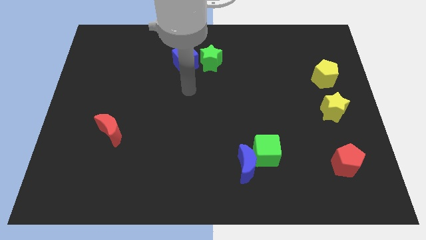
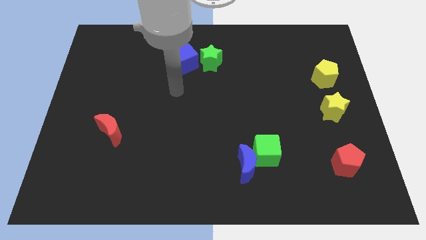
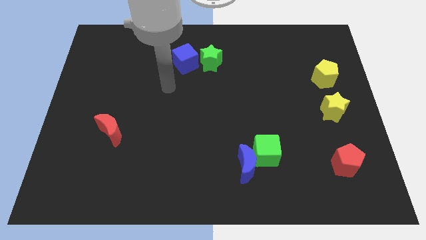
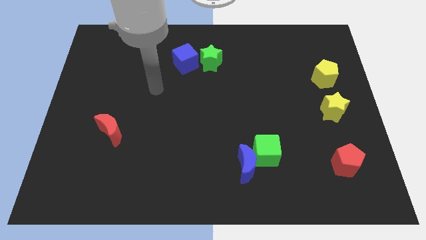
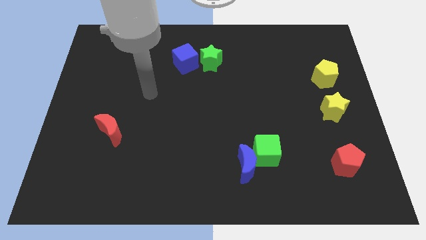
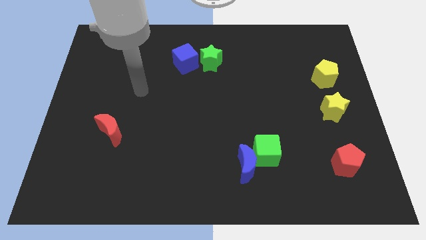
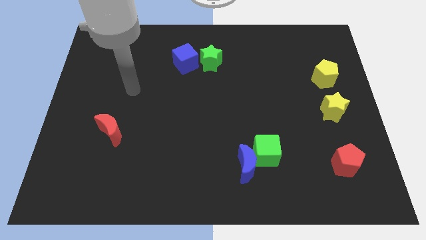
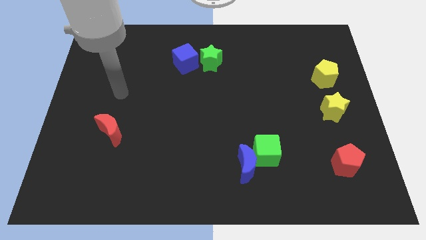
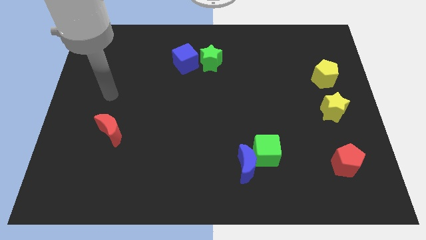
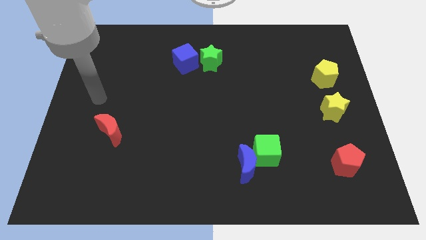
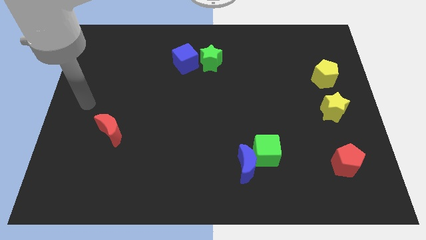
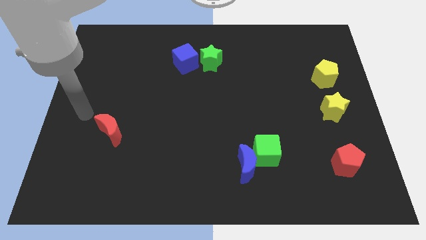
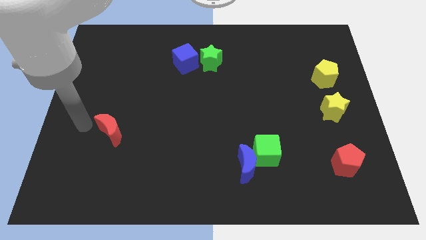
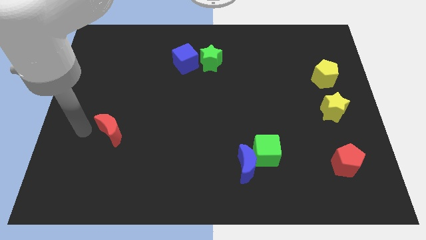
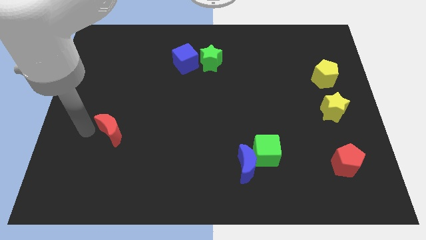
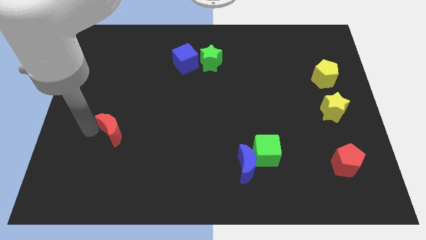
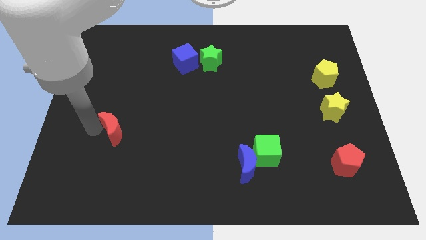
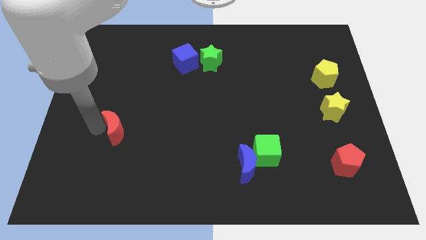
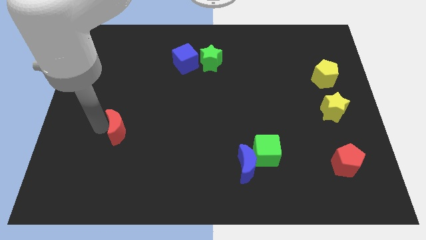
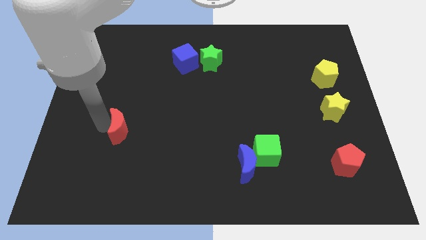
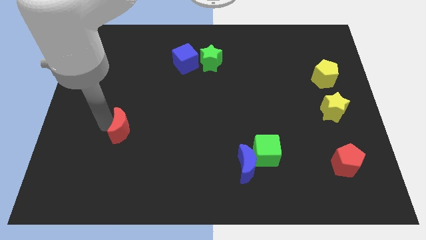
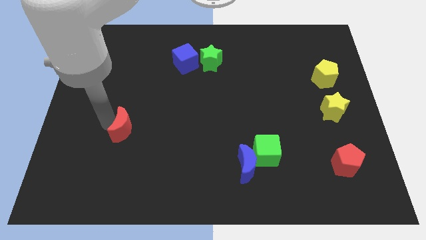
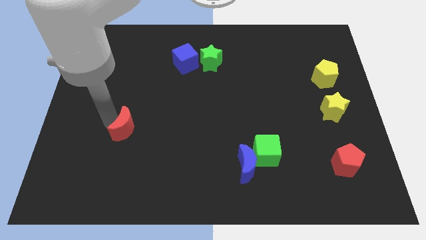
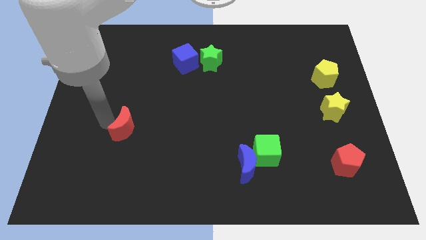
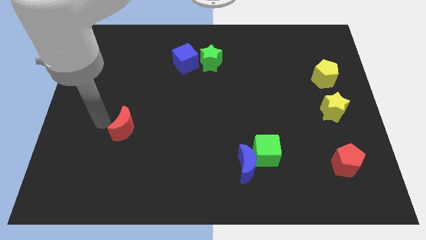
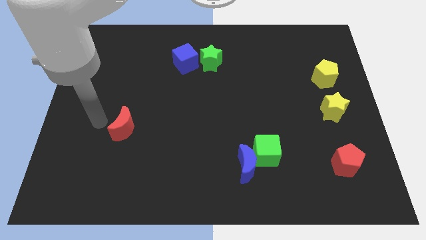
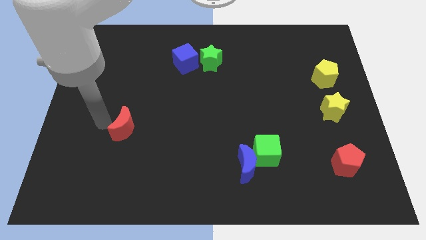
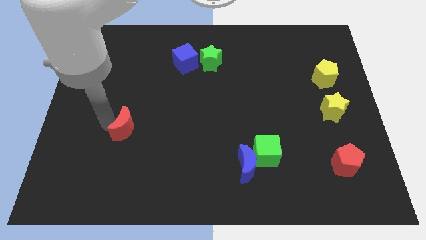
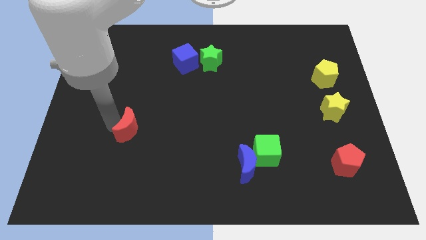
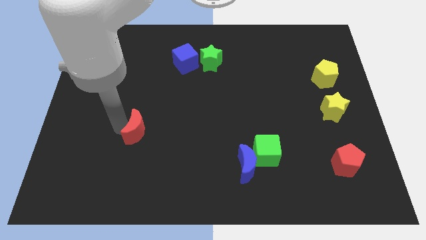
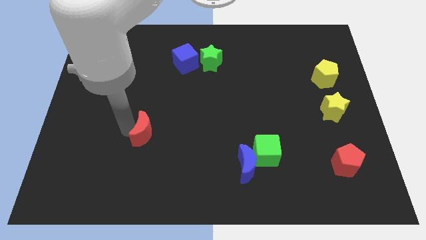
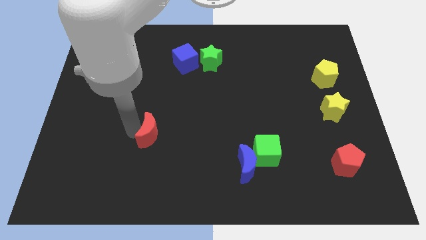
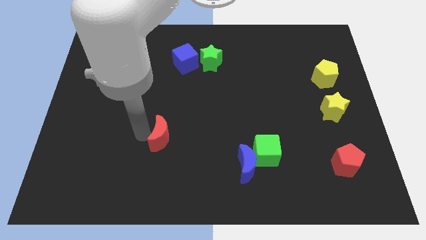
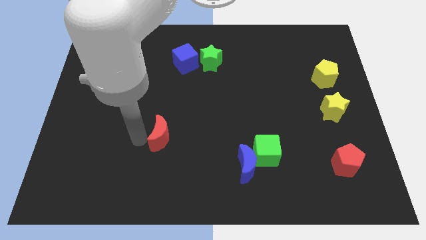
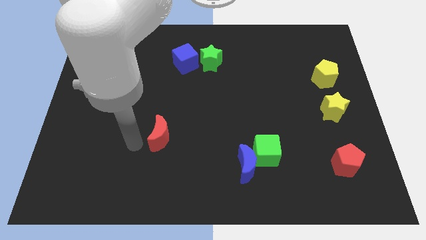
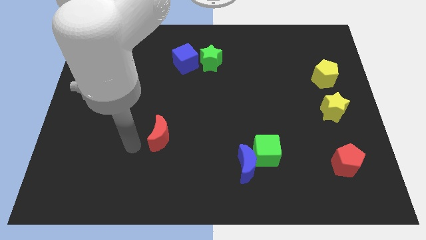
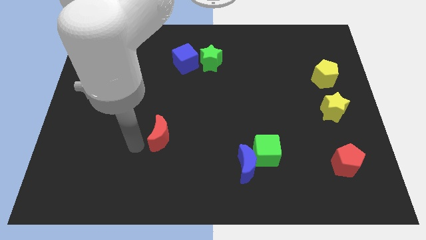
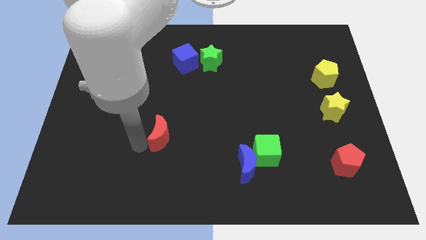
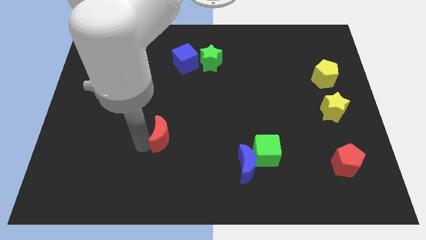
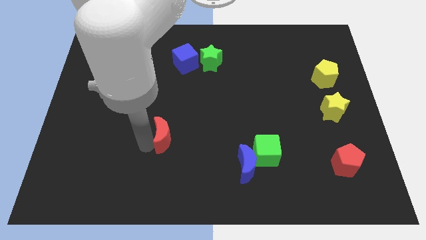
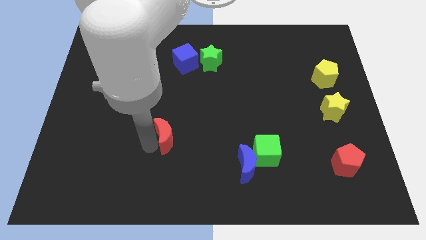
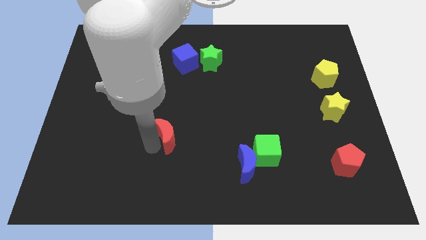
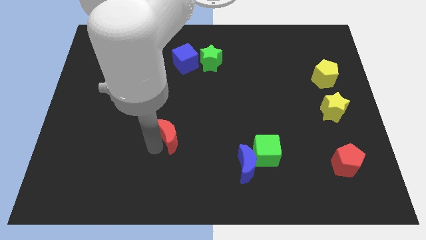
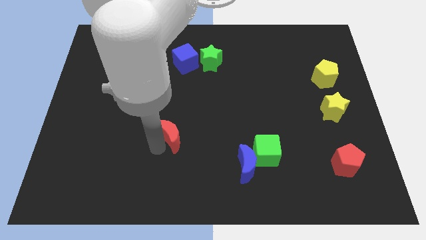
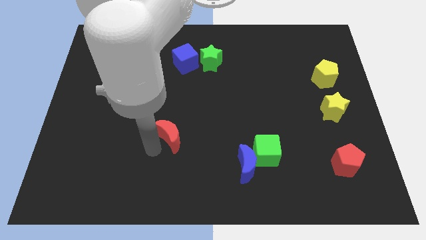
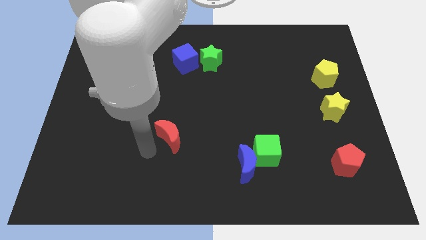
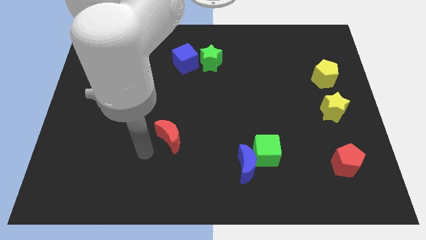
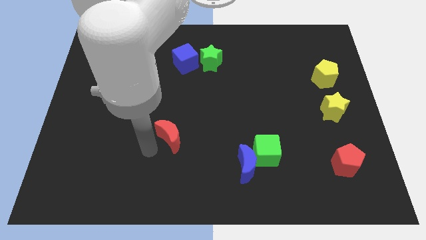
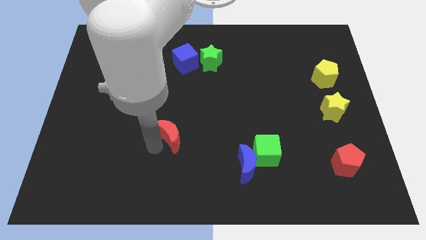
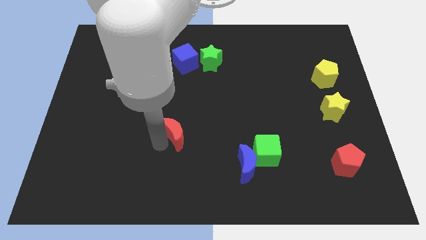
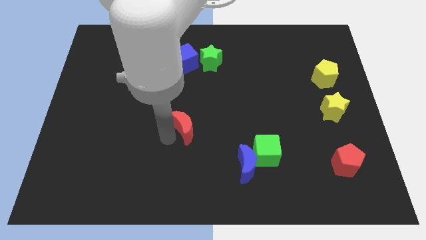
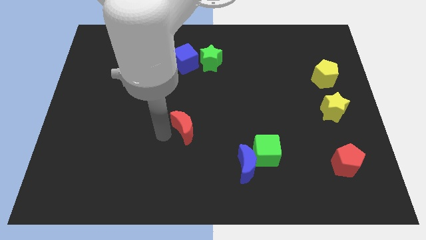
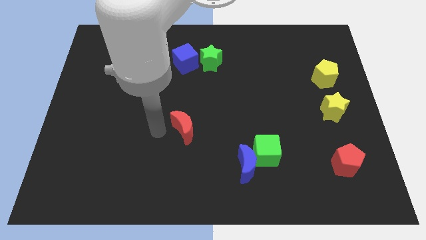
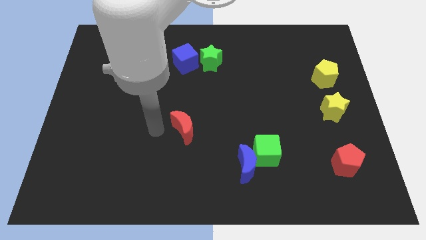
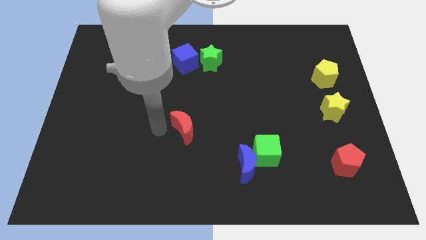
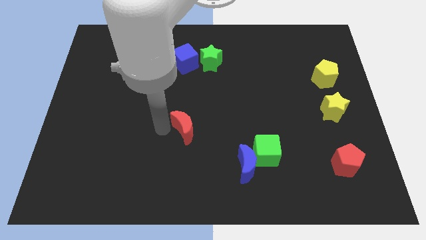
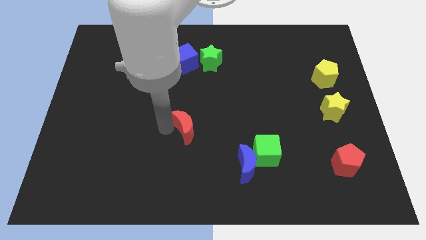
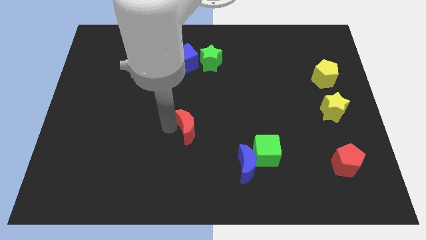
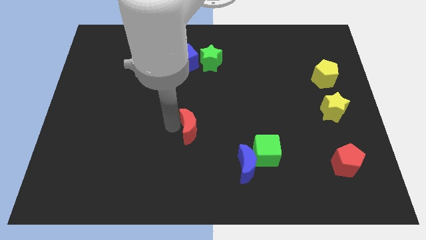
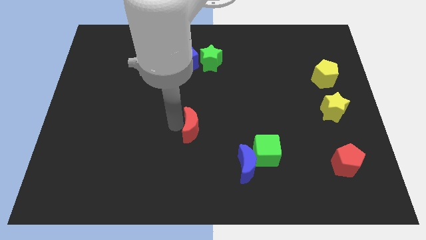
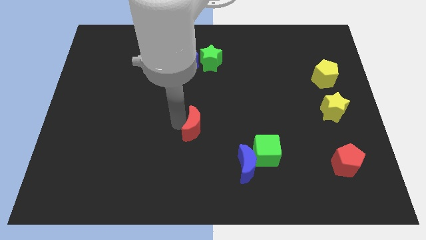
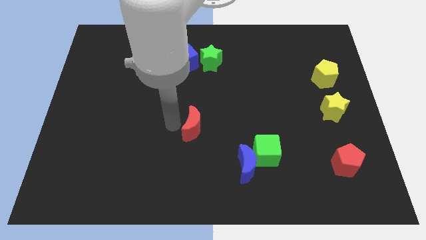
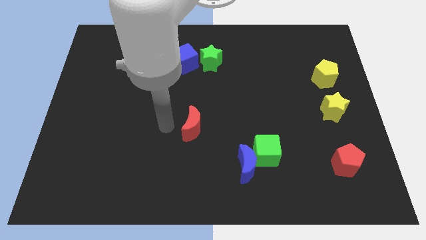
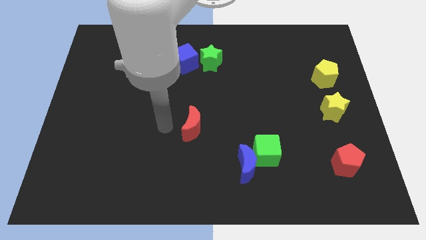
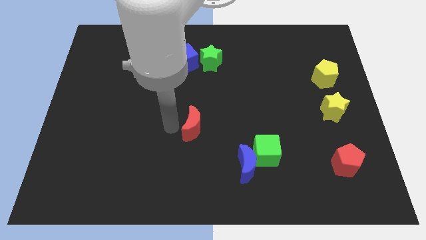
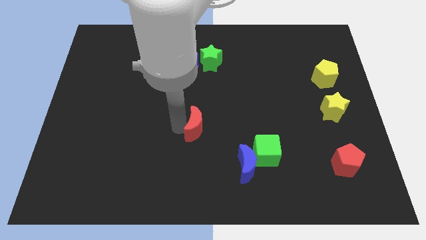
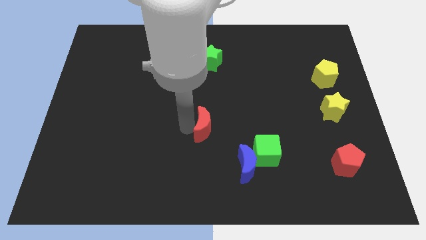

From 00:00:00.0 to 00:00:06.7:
move the red moon right

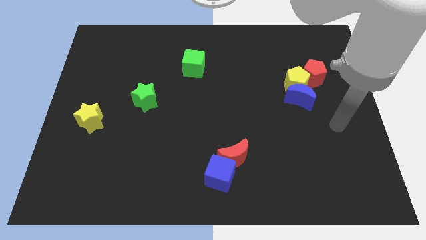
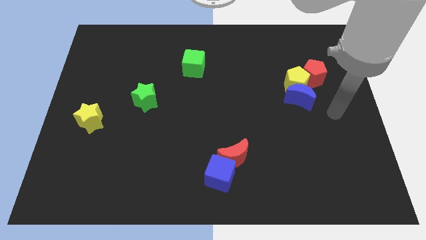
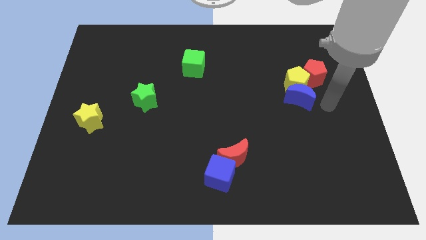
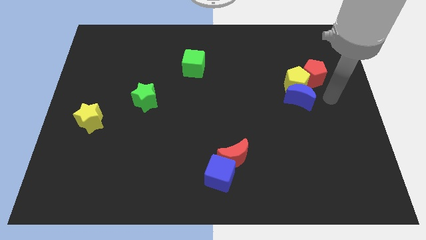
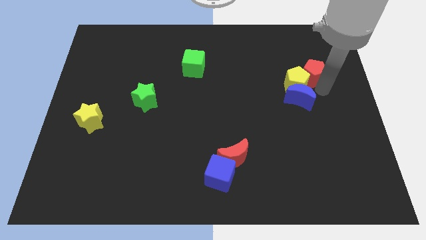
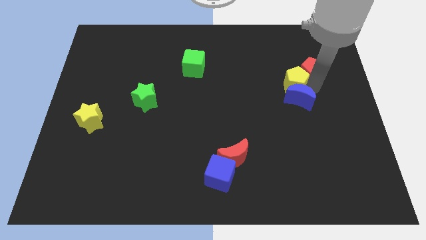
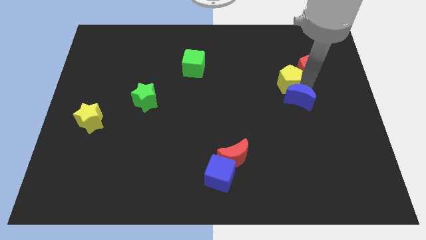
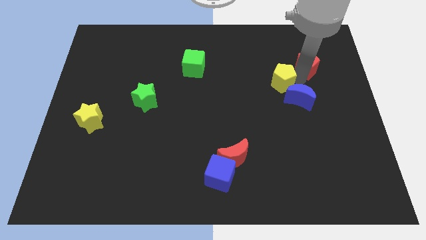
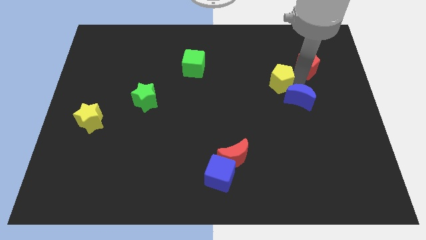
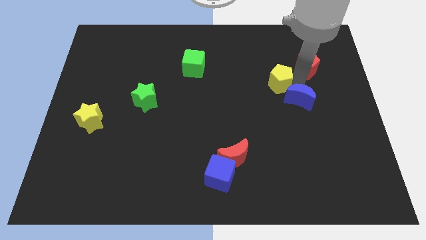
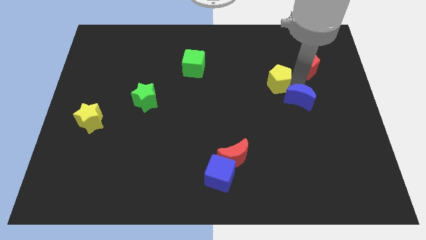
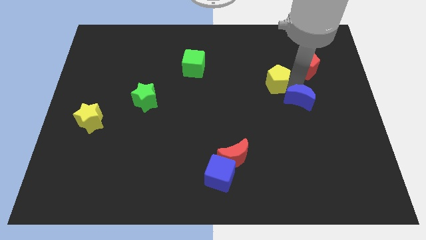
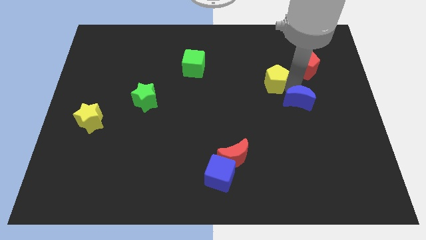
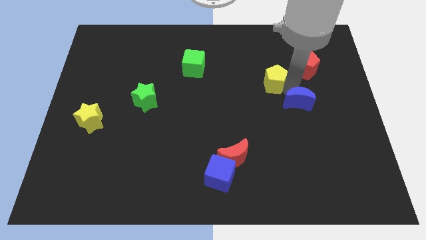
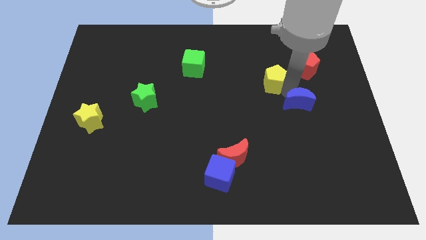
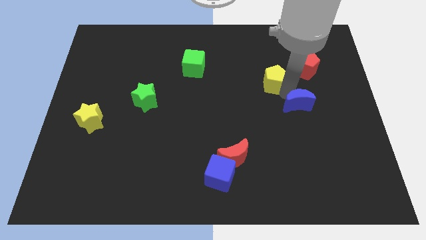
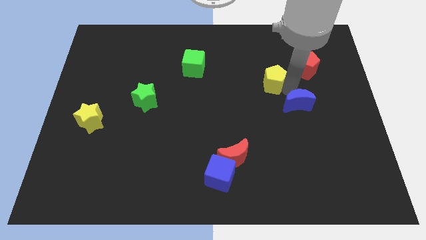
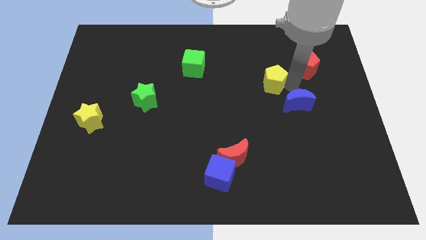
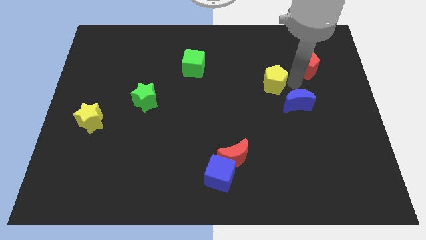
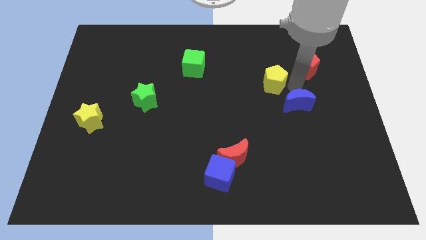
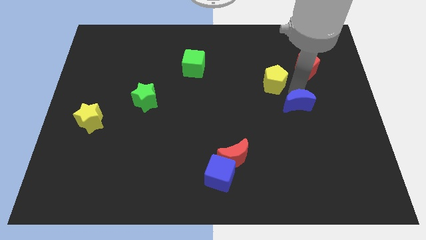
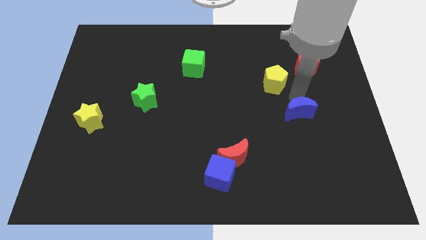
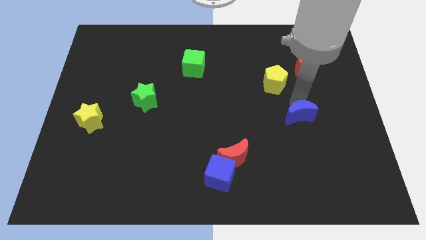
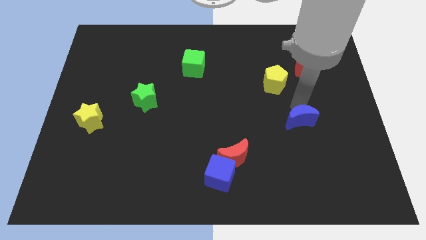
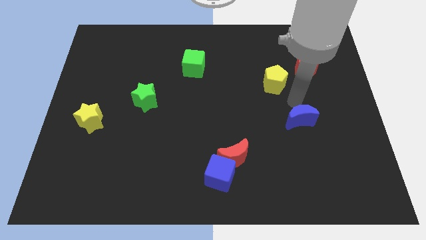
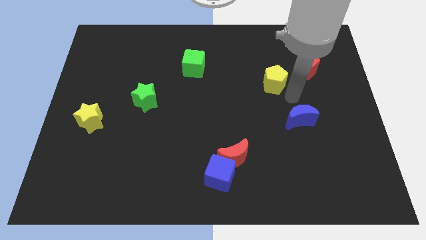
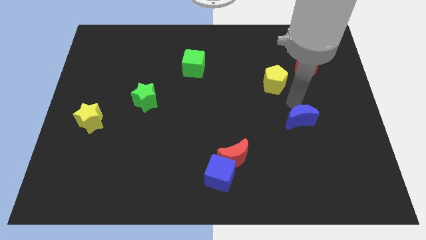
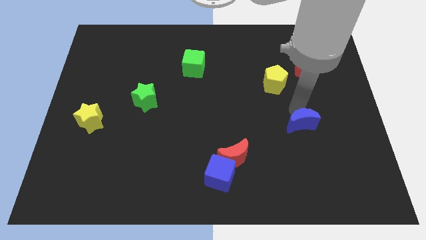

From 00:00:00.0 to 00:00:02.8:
slightly slide the blue moon downwards
